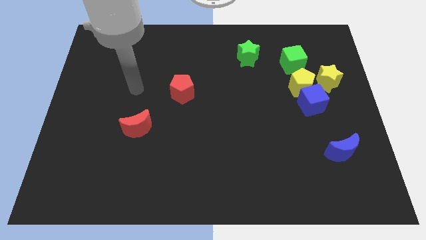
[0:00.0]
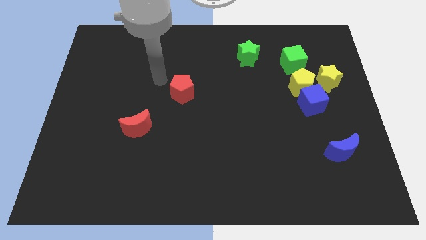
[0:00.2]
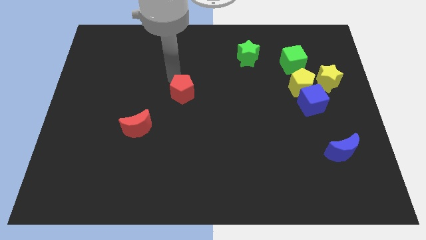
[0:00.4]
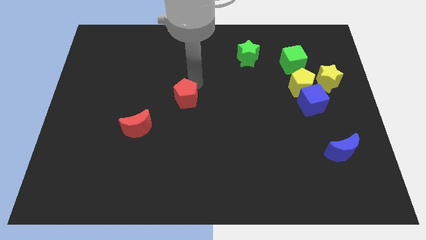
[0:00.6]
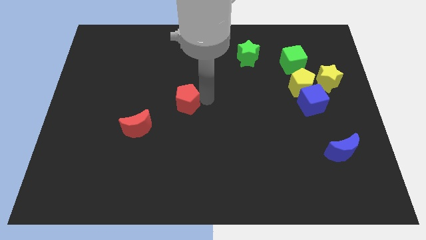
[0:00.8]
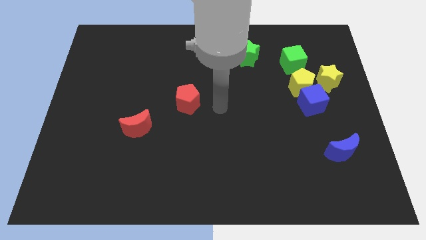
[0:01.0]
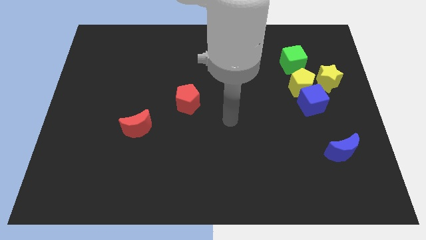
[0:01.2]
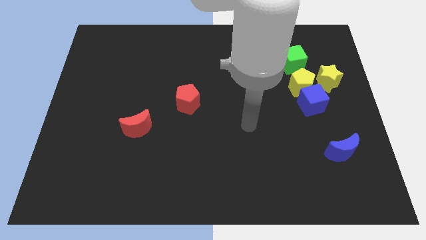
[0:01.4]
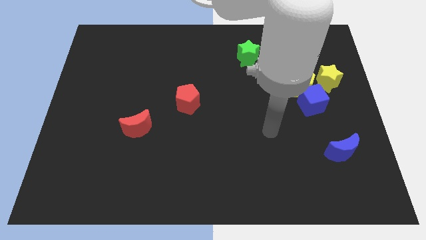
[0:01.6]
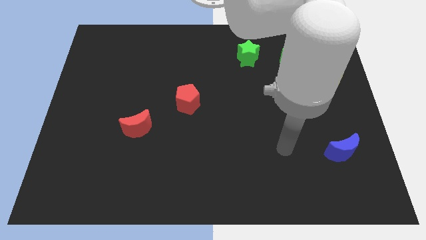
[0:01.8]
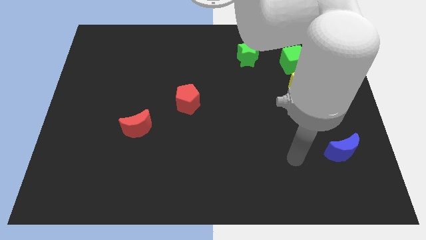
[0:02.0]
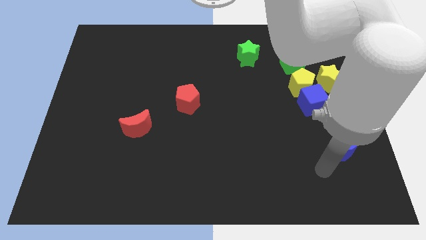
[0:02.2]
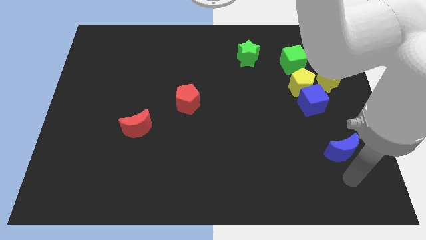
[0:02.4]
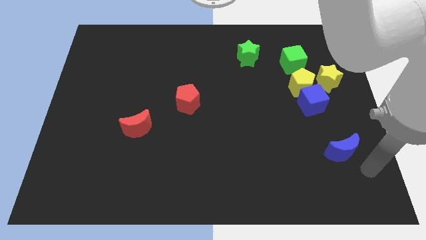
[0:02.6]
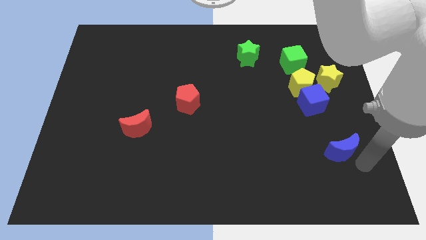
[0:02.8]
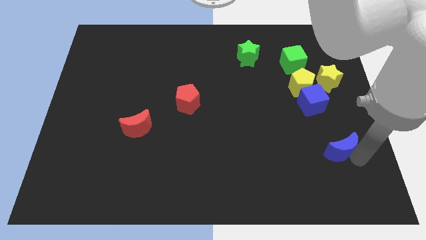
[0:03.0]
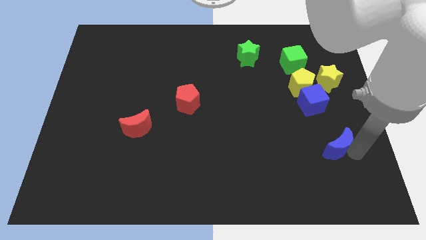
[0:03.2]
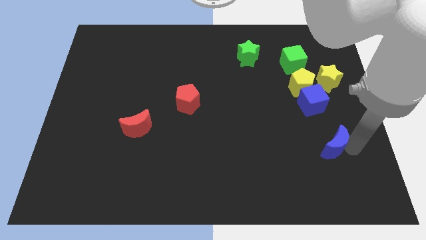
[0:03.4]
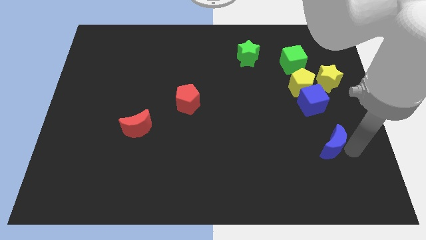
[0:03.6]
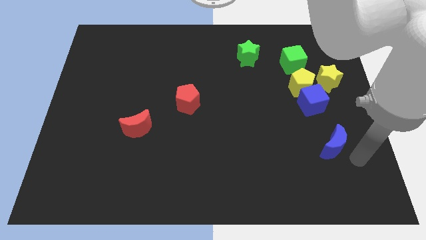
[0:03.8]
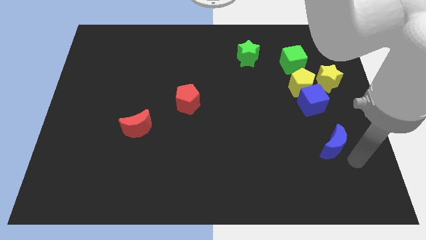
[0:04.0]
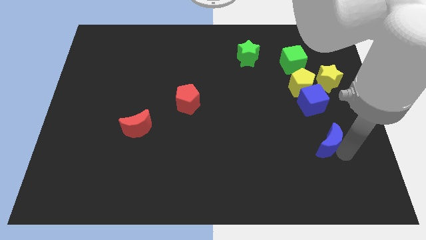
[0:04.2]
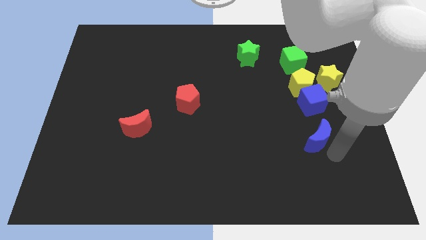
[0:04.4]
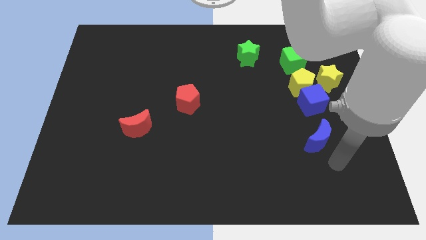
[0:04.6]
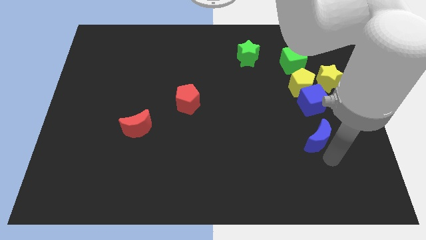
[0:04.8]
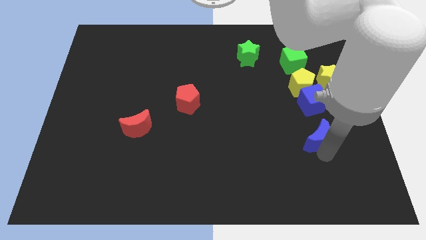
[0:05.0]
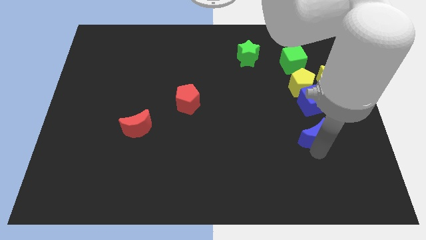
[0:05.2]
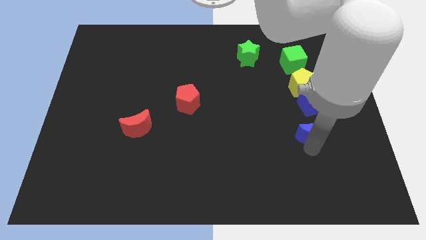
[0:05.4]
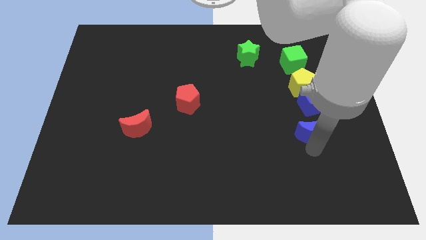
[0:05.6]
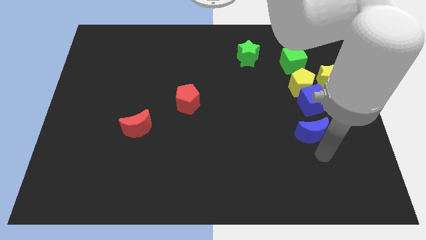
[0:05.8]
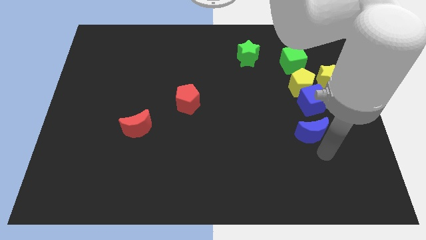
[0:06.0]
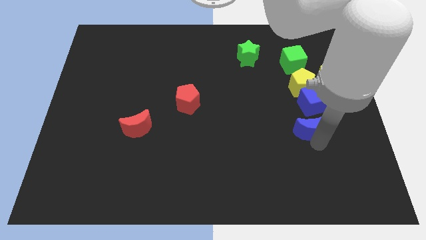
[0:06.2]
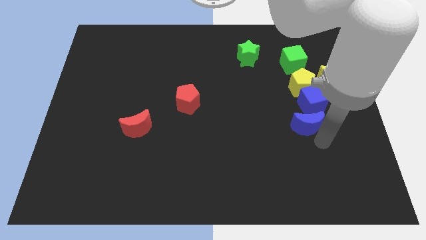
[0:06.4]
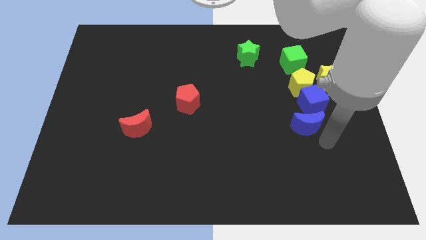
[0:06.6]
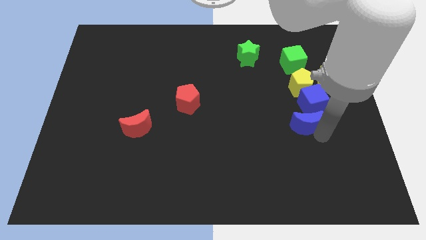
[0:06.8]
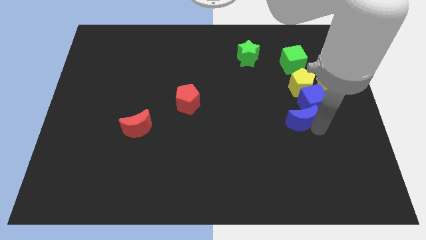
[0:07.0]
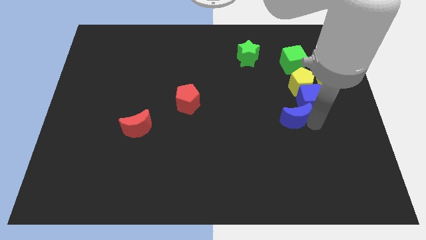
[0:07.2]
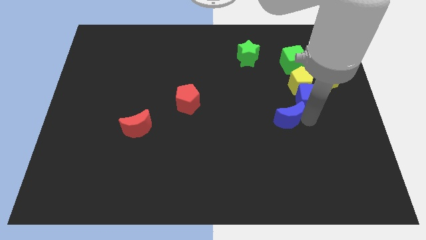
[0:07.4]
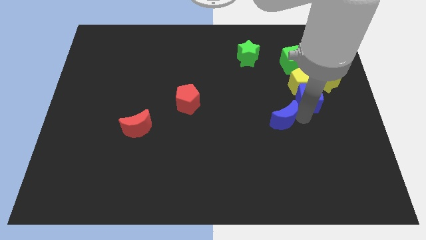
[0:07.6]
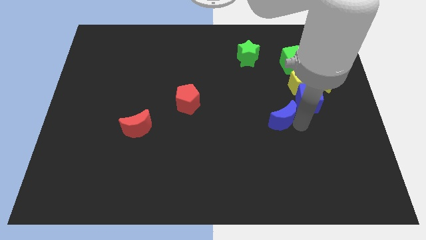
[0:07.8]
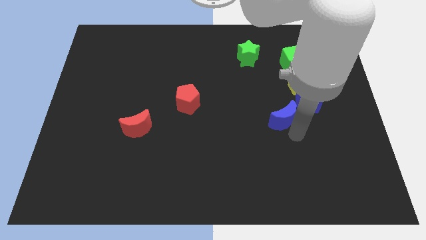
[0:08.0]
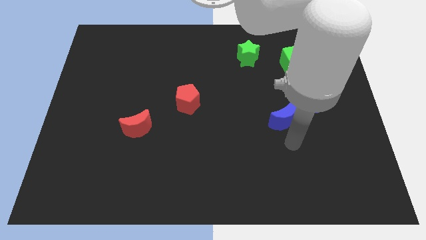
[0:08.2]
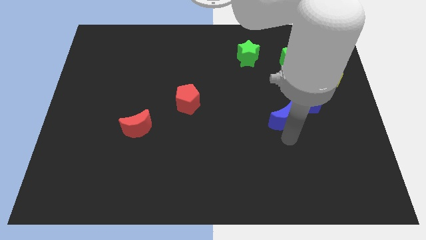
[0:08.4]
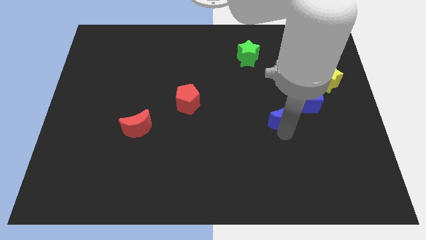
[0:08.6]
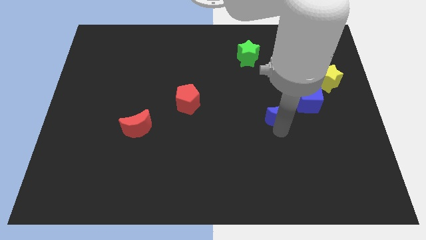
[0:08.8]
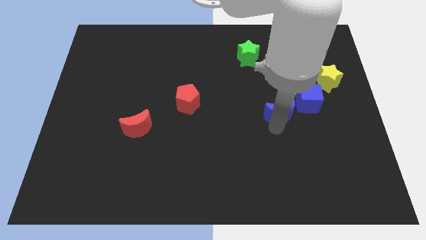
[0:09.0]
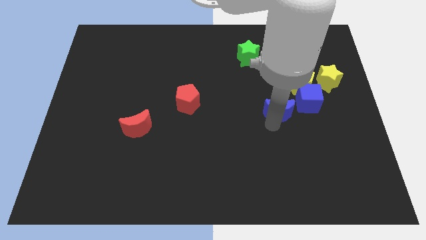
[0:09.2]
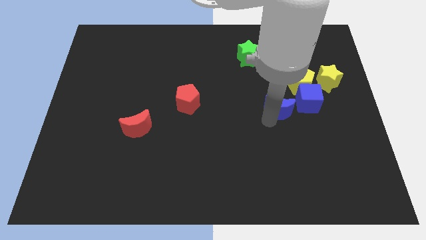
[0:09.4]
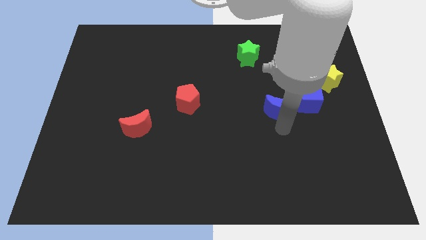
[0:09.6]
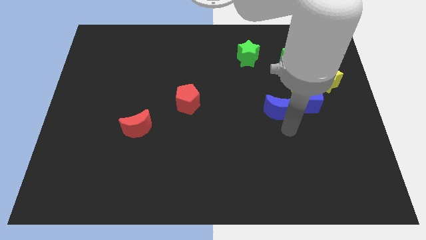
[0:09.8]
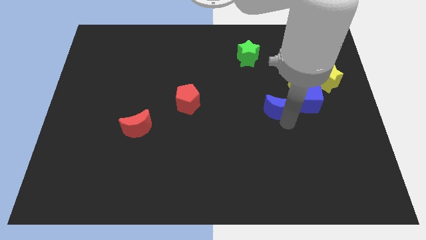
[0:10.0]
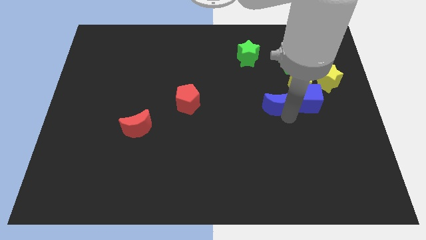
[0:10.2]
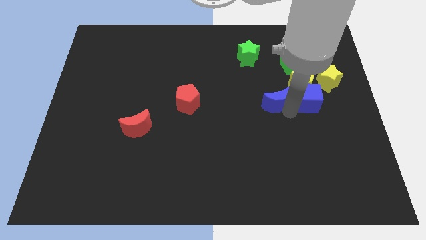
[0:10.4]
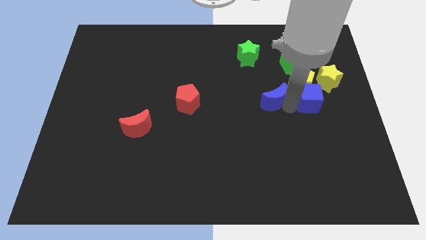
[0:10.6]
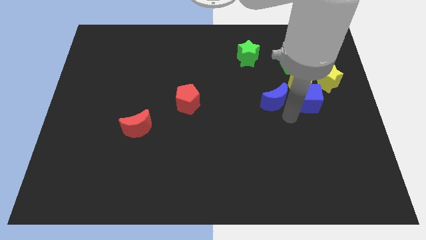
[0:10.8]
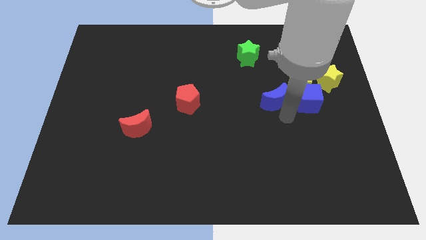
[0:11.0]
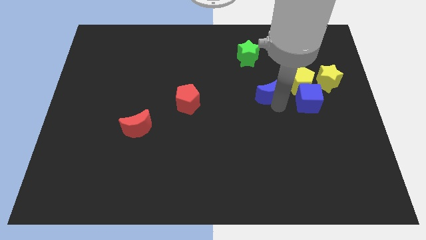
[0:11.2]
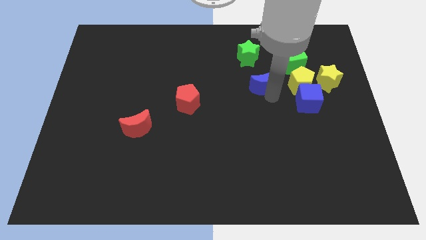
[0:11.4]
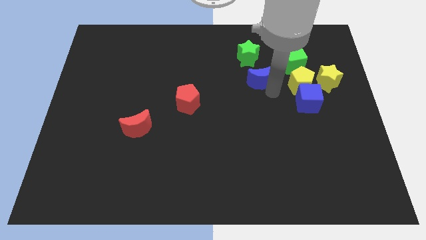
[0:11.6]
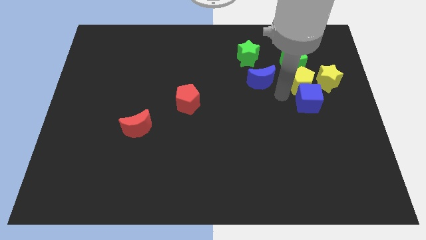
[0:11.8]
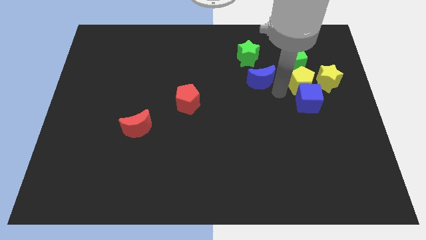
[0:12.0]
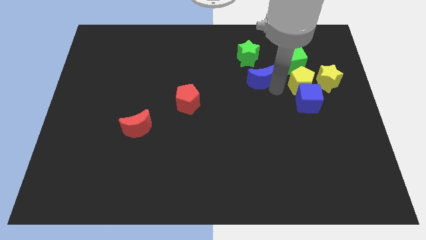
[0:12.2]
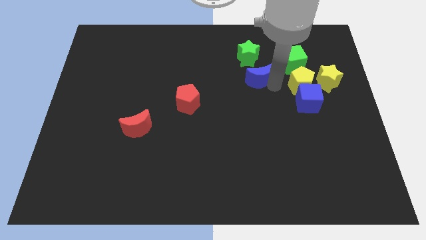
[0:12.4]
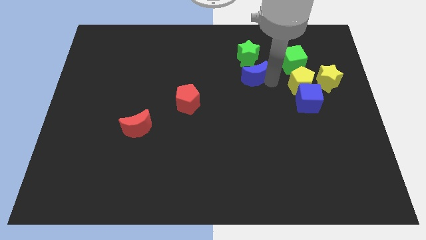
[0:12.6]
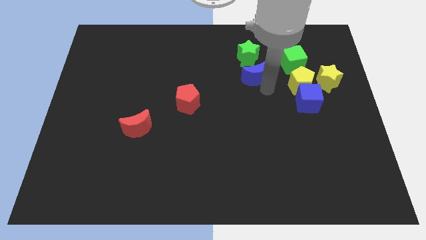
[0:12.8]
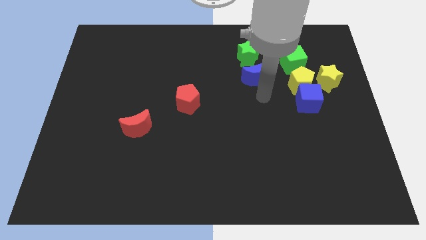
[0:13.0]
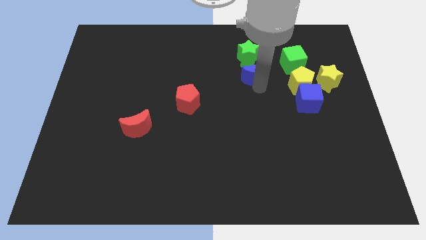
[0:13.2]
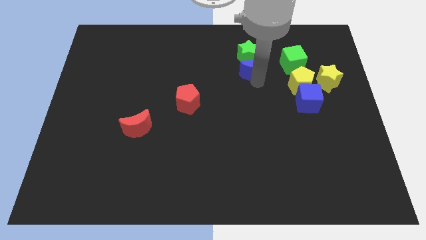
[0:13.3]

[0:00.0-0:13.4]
put the blue moon to the green star

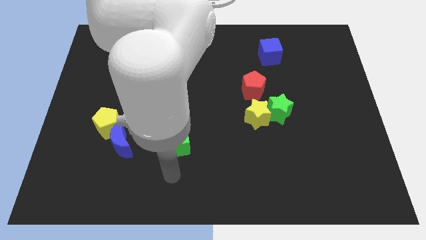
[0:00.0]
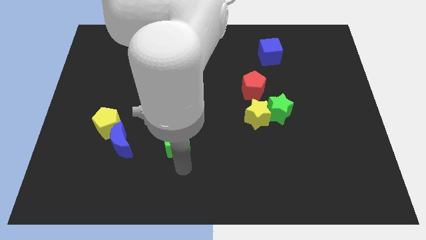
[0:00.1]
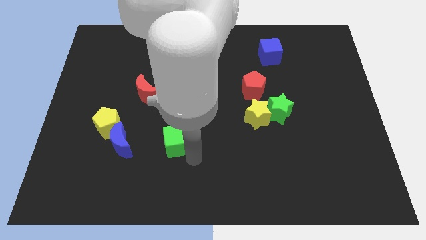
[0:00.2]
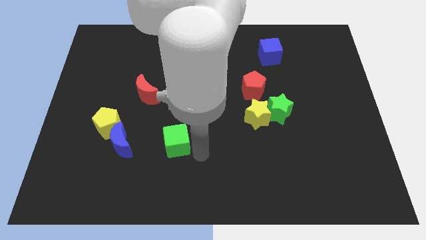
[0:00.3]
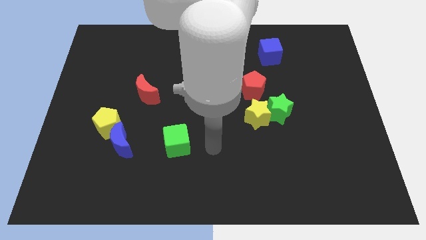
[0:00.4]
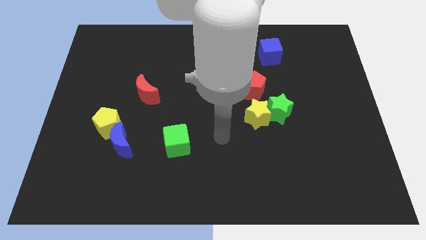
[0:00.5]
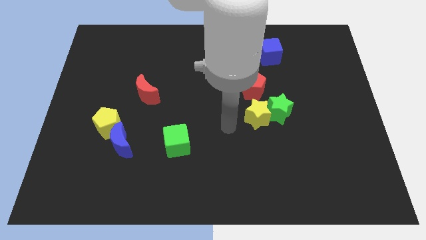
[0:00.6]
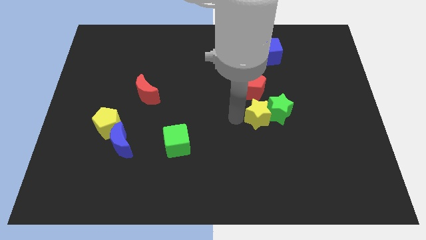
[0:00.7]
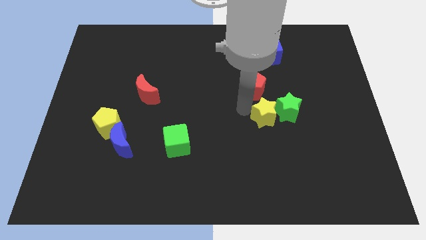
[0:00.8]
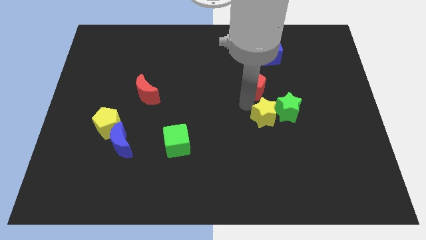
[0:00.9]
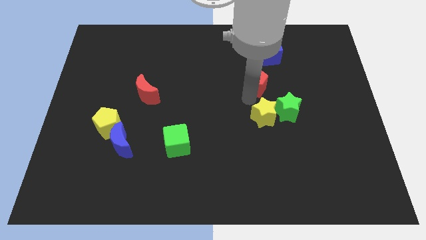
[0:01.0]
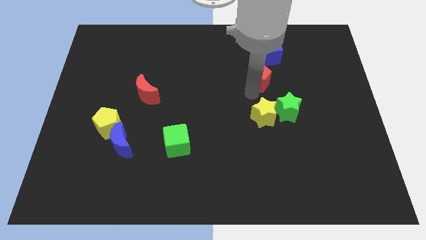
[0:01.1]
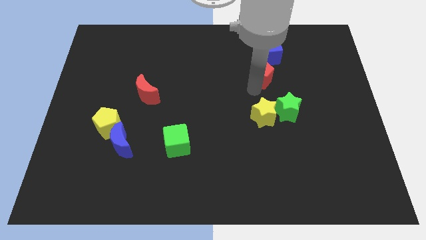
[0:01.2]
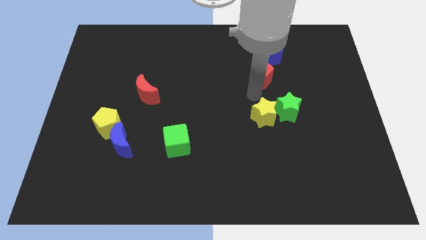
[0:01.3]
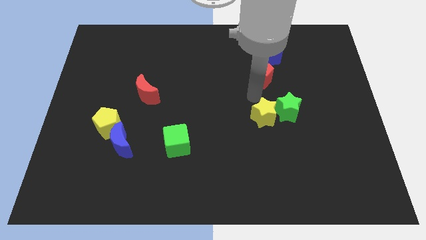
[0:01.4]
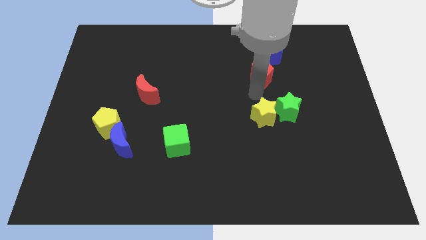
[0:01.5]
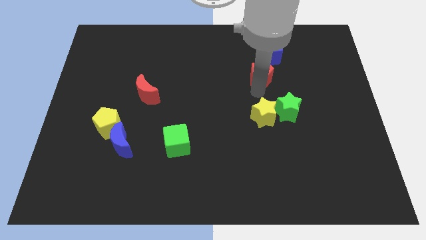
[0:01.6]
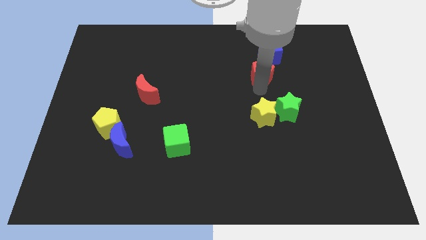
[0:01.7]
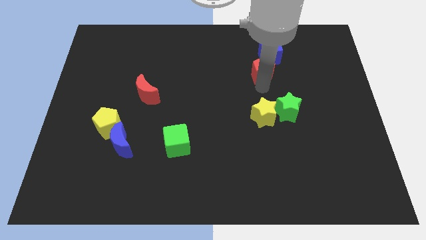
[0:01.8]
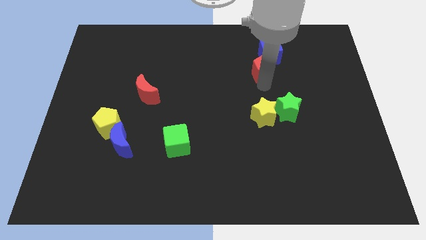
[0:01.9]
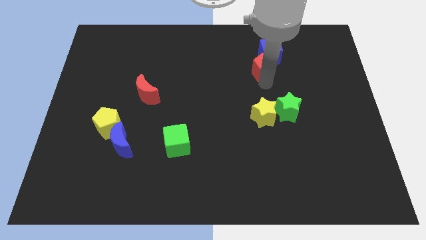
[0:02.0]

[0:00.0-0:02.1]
push the red pentagon to the blue cube
